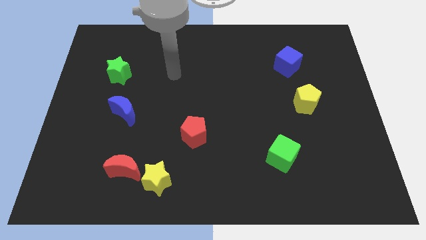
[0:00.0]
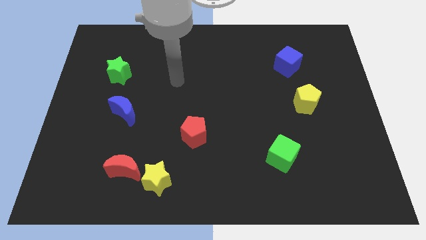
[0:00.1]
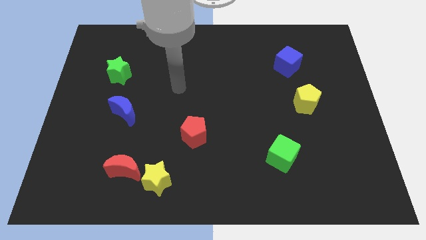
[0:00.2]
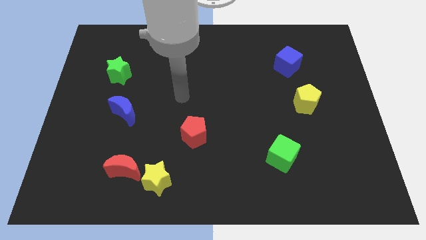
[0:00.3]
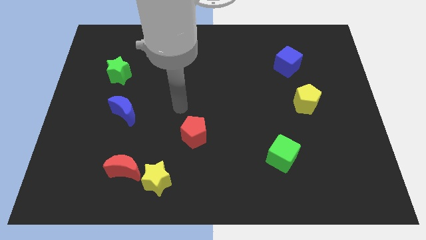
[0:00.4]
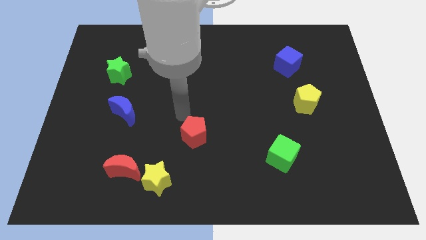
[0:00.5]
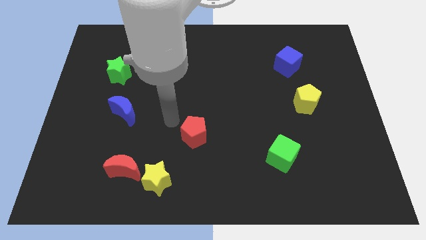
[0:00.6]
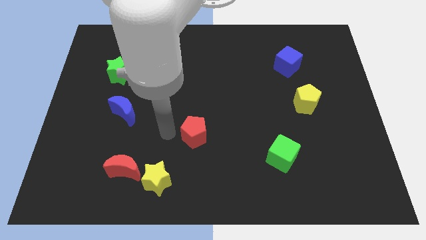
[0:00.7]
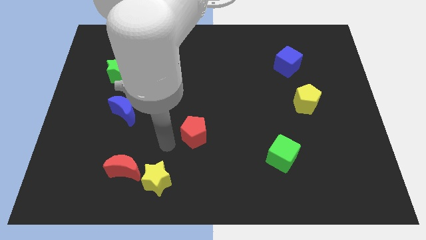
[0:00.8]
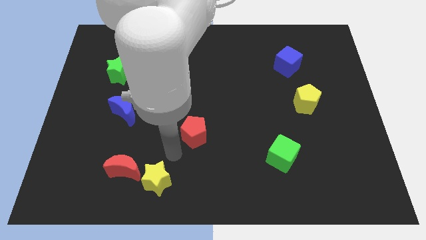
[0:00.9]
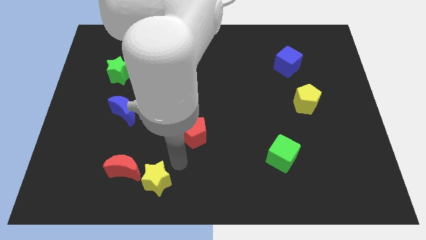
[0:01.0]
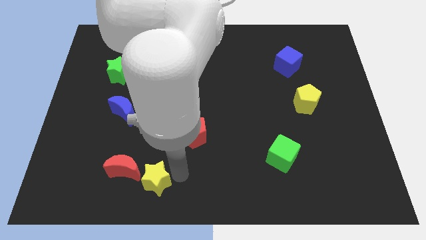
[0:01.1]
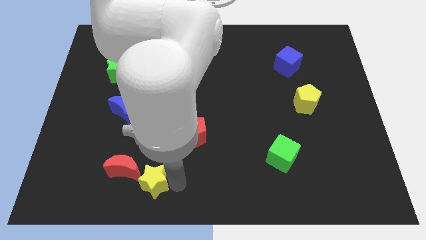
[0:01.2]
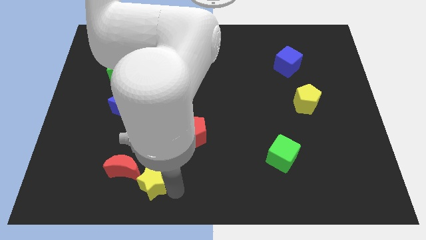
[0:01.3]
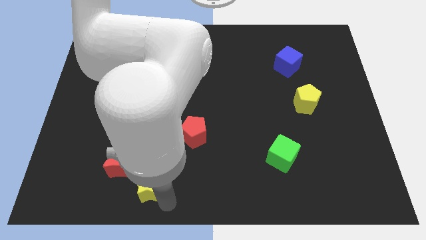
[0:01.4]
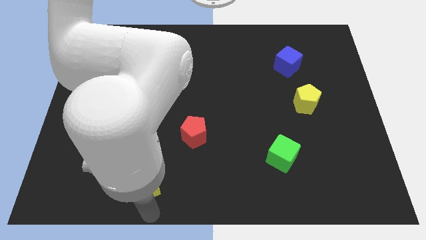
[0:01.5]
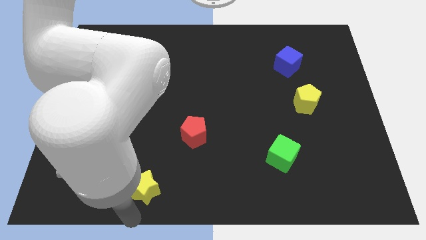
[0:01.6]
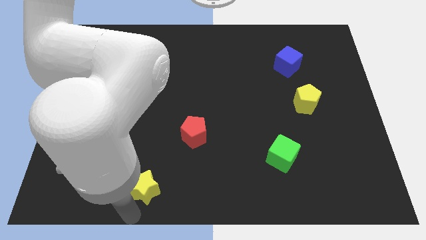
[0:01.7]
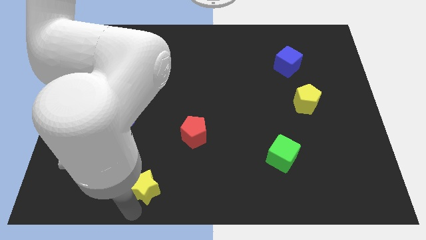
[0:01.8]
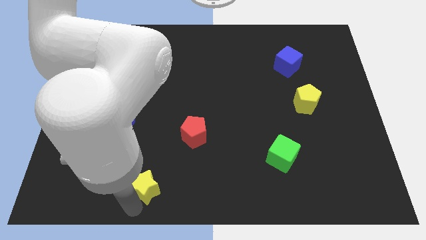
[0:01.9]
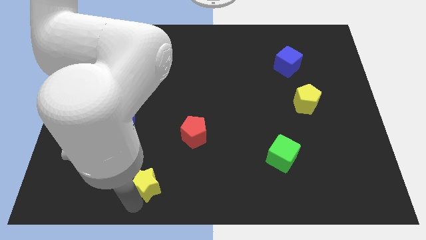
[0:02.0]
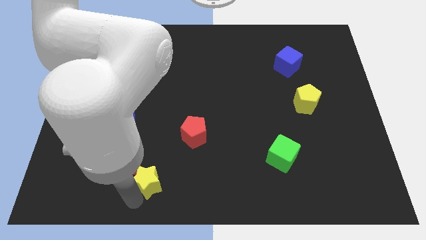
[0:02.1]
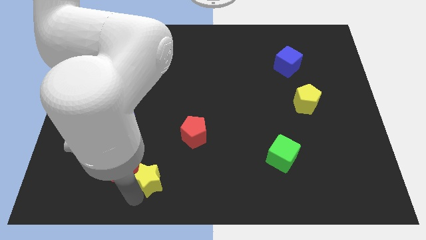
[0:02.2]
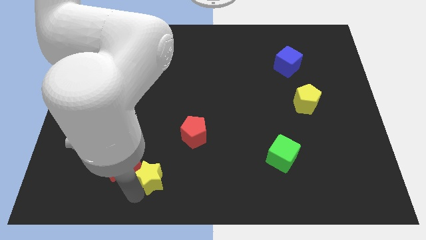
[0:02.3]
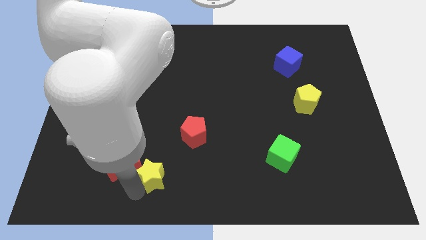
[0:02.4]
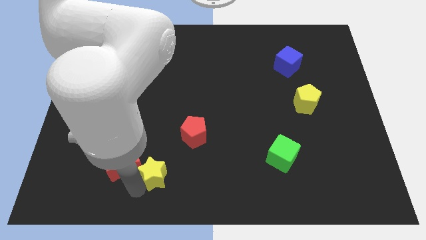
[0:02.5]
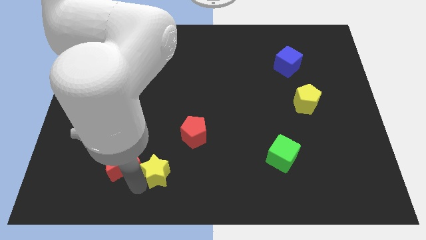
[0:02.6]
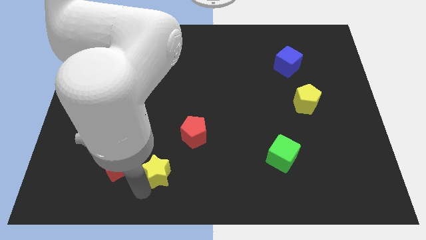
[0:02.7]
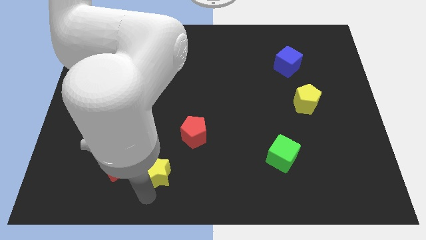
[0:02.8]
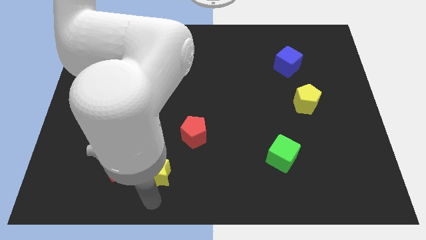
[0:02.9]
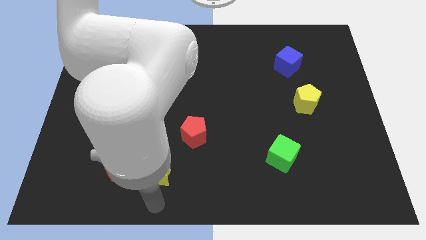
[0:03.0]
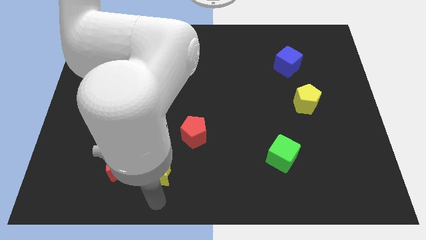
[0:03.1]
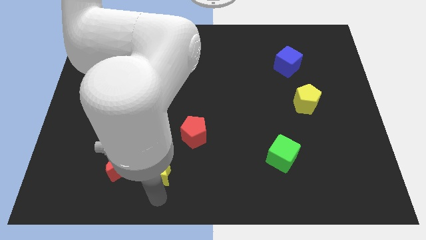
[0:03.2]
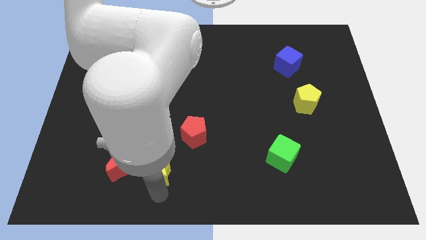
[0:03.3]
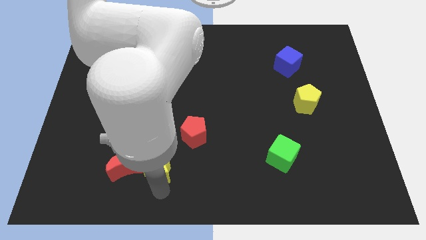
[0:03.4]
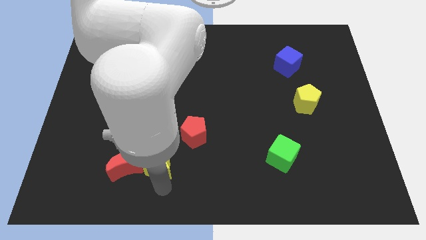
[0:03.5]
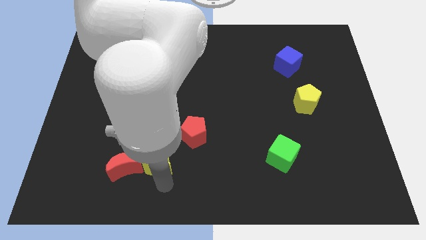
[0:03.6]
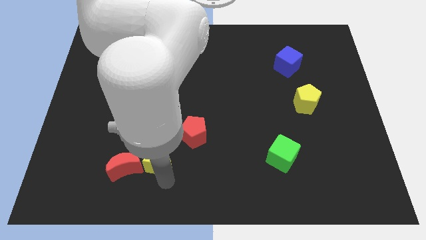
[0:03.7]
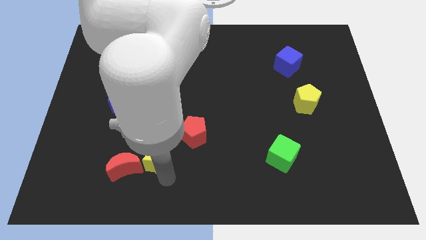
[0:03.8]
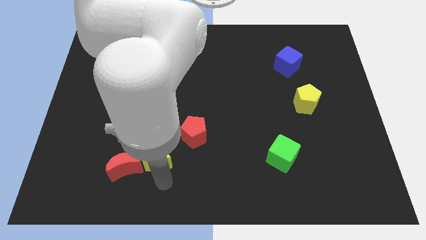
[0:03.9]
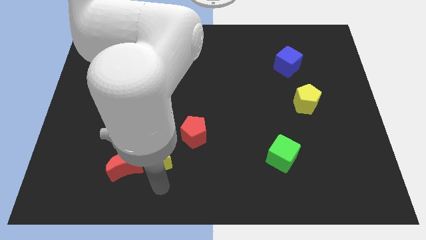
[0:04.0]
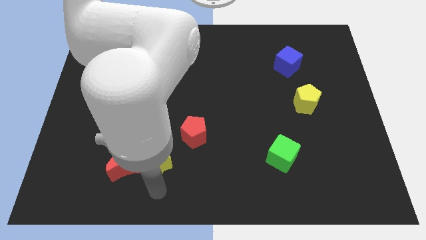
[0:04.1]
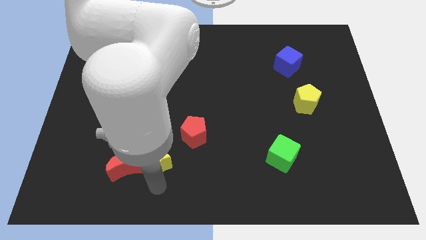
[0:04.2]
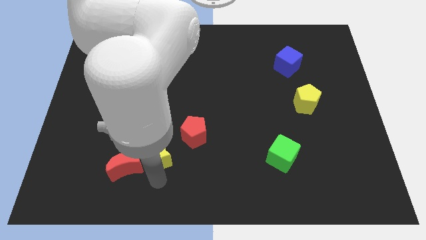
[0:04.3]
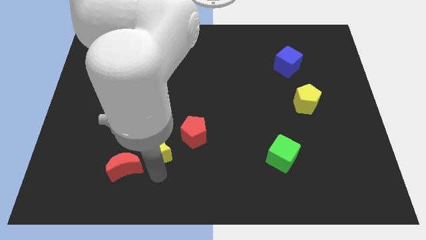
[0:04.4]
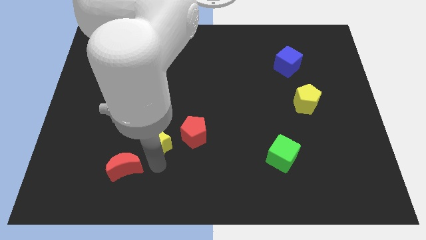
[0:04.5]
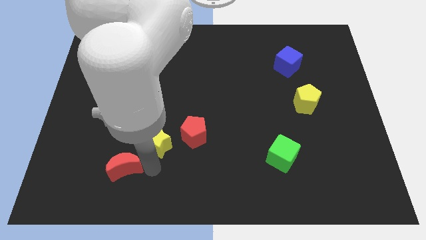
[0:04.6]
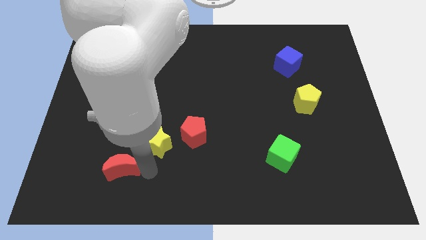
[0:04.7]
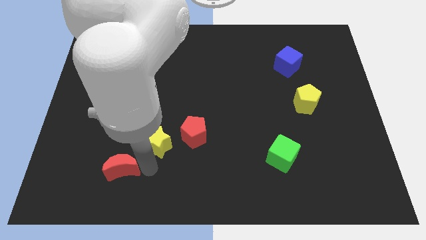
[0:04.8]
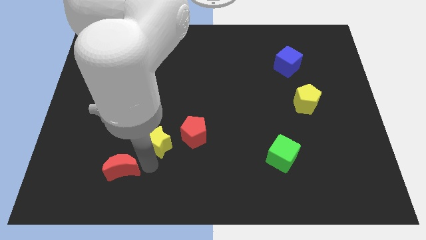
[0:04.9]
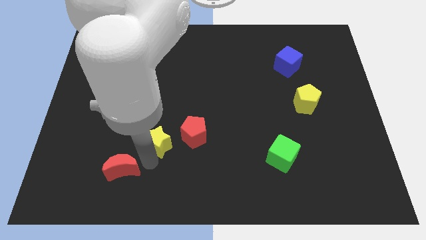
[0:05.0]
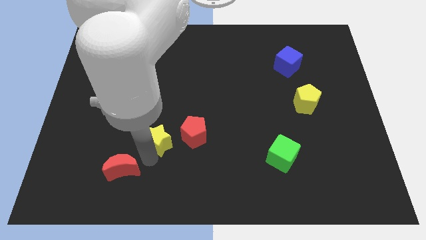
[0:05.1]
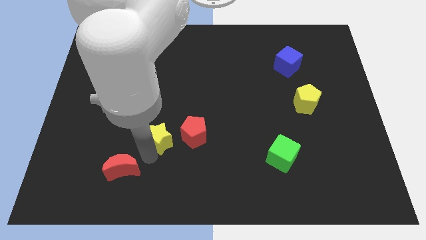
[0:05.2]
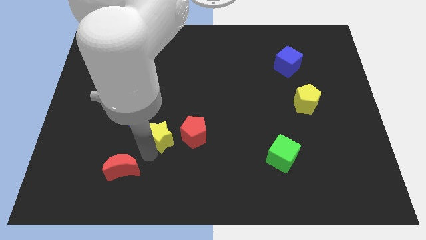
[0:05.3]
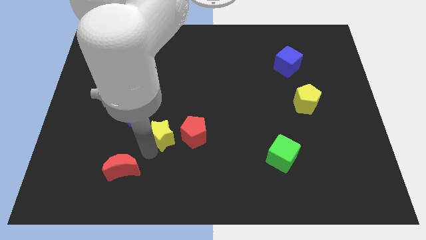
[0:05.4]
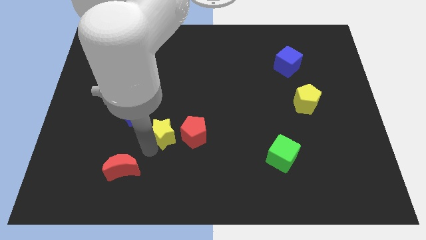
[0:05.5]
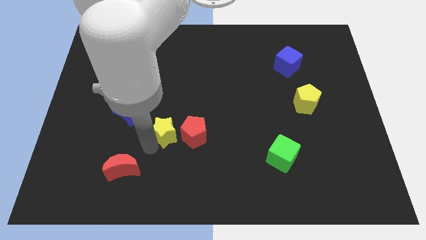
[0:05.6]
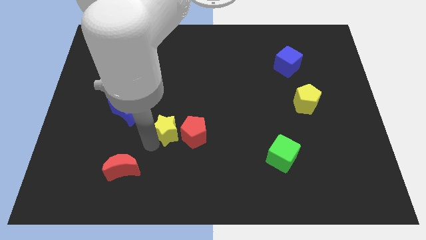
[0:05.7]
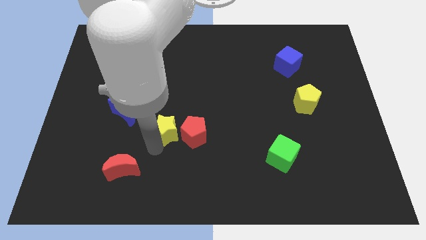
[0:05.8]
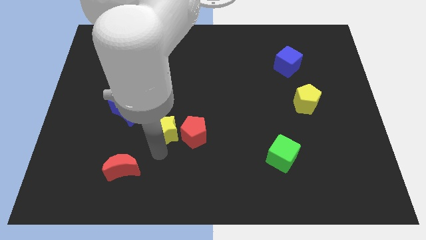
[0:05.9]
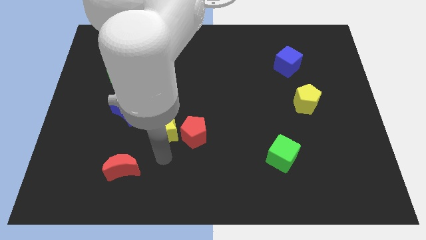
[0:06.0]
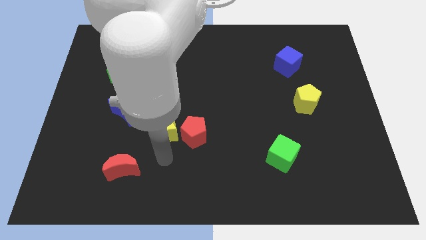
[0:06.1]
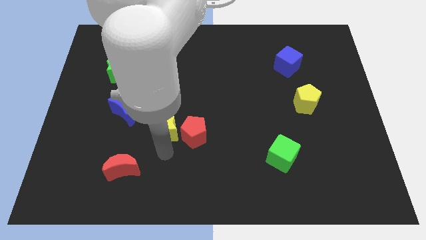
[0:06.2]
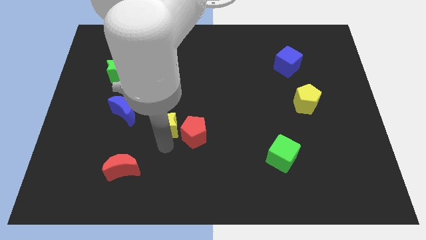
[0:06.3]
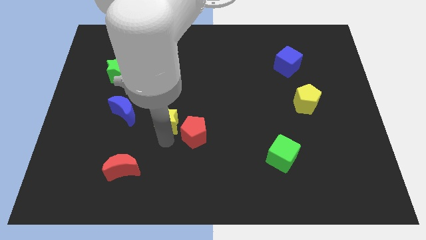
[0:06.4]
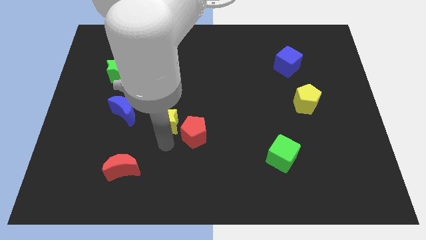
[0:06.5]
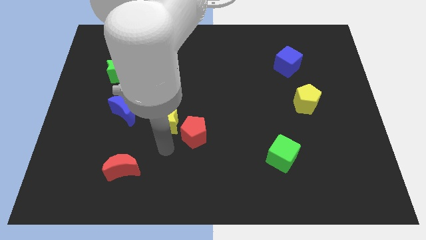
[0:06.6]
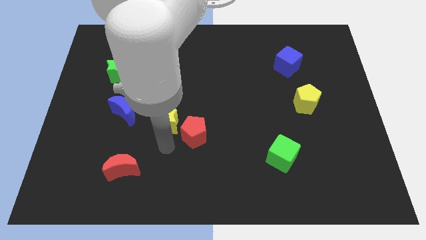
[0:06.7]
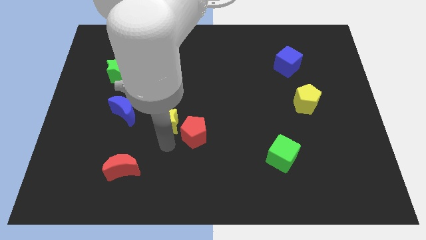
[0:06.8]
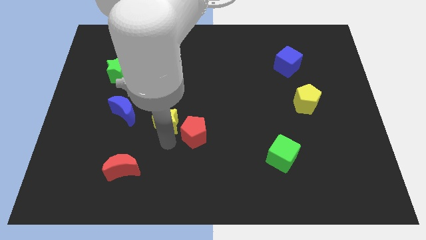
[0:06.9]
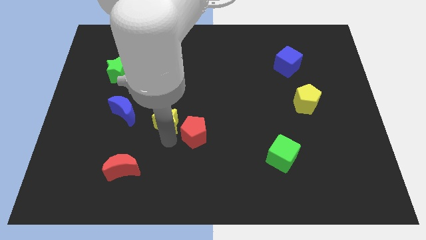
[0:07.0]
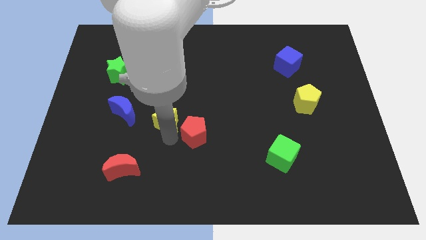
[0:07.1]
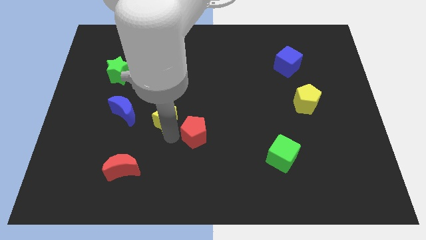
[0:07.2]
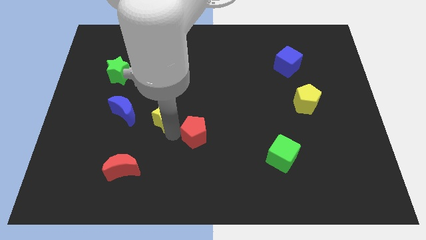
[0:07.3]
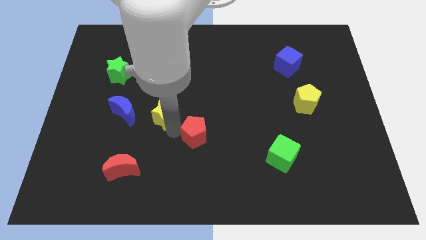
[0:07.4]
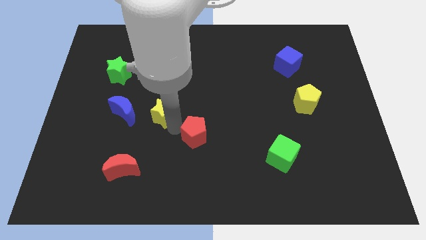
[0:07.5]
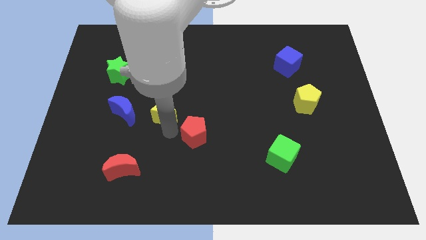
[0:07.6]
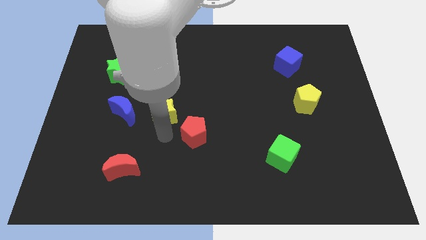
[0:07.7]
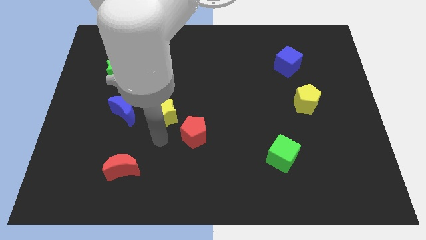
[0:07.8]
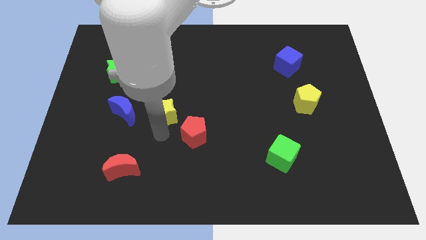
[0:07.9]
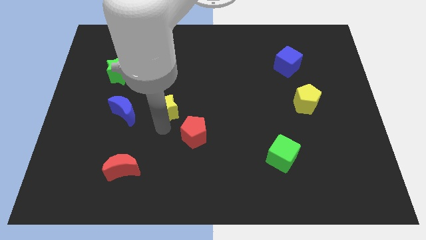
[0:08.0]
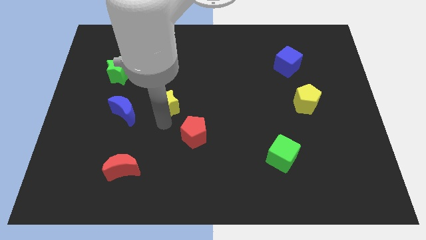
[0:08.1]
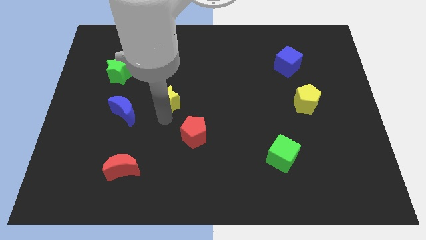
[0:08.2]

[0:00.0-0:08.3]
move the yellow star up

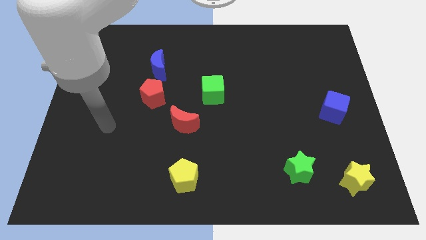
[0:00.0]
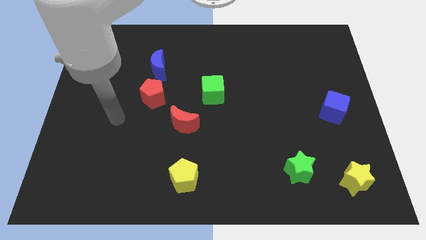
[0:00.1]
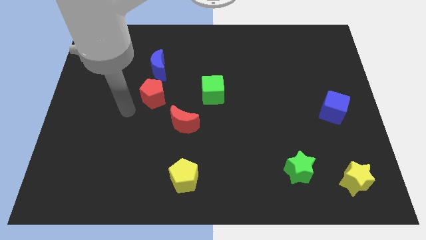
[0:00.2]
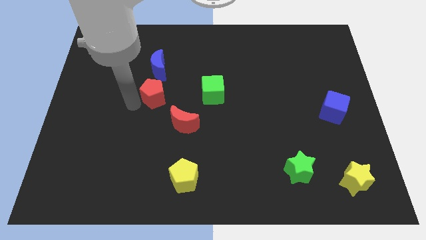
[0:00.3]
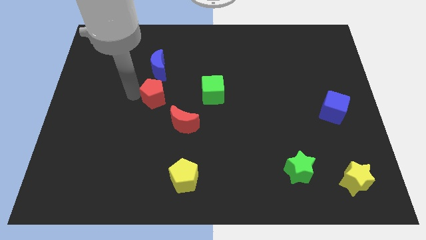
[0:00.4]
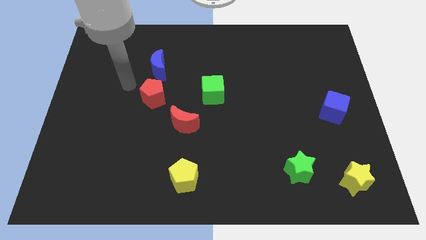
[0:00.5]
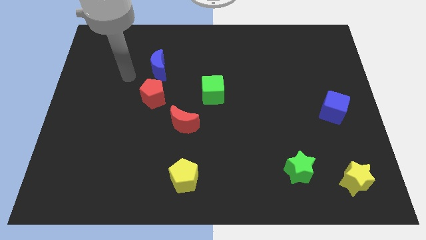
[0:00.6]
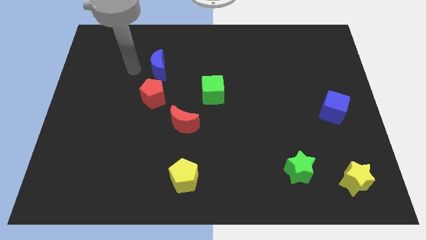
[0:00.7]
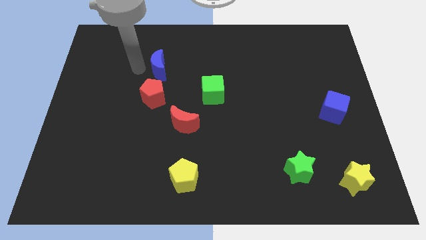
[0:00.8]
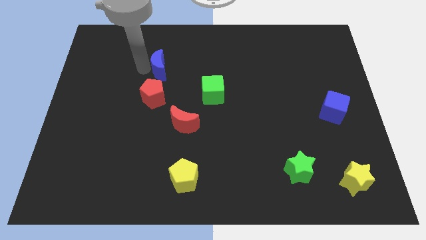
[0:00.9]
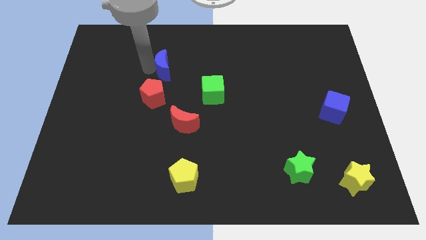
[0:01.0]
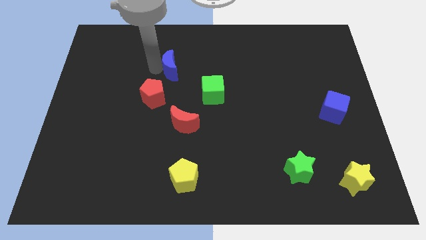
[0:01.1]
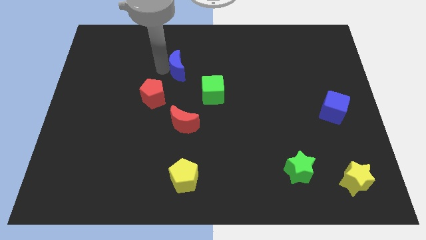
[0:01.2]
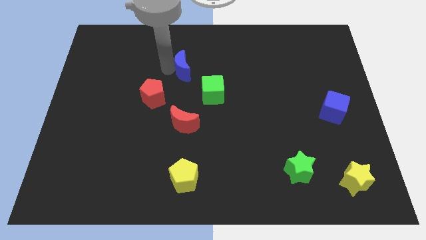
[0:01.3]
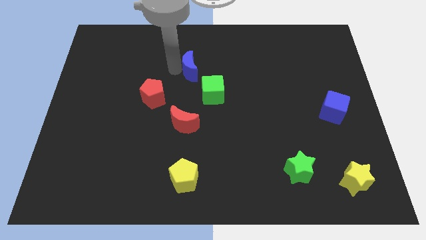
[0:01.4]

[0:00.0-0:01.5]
slightly push the blue moon right
